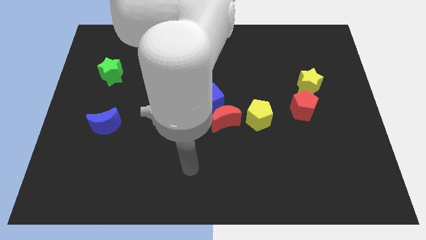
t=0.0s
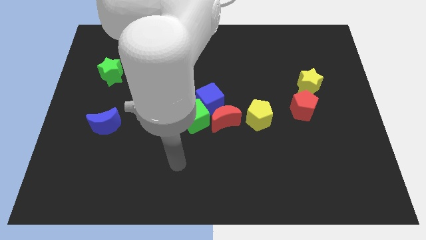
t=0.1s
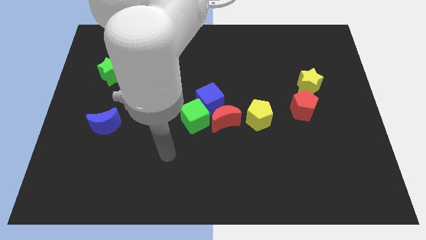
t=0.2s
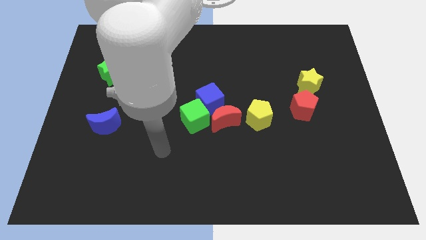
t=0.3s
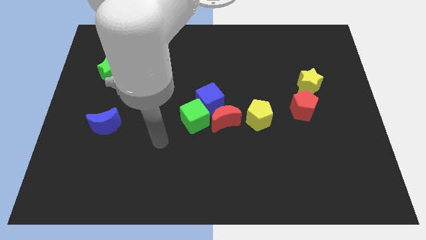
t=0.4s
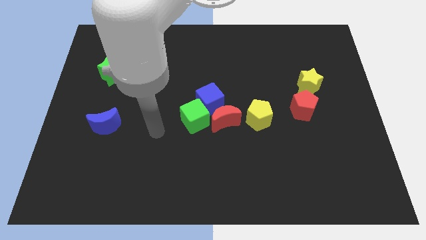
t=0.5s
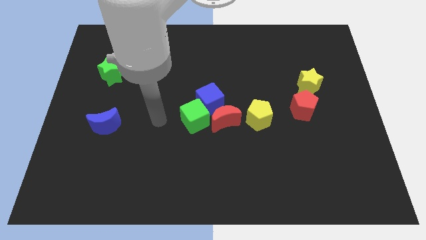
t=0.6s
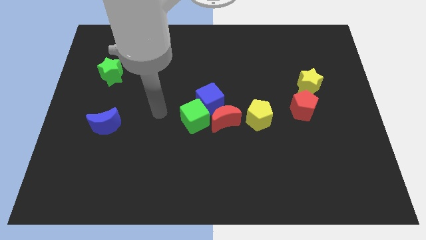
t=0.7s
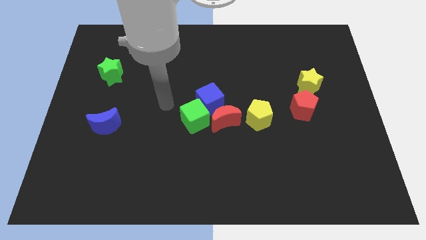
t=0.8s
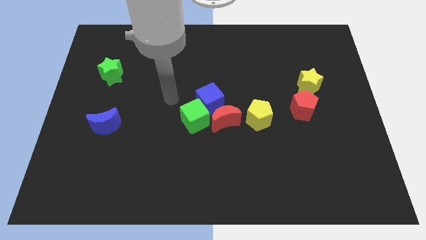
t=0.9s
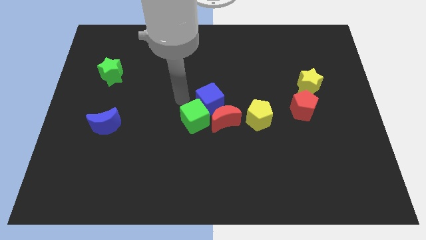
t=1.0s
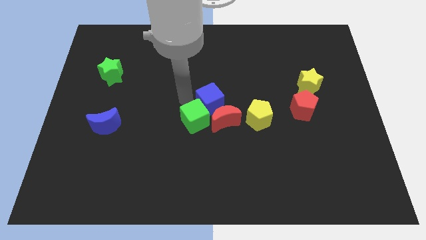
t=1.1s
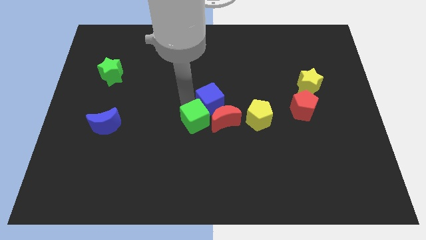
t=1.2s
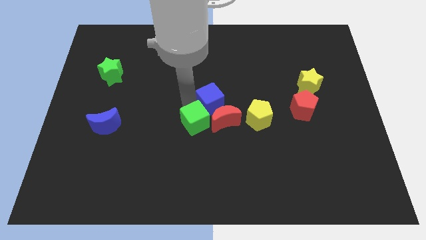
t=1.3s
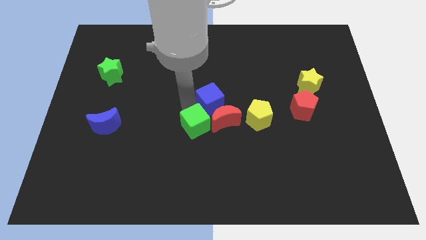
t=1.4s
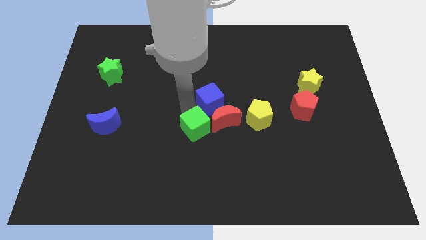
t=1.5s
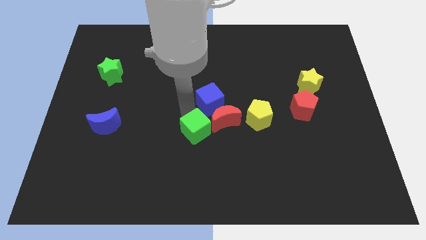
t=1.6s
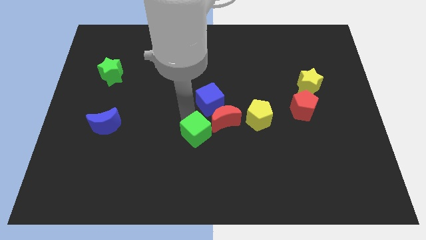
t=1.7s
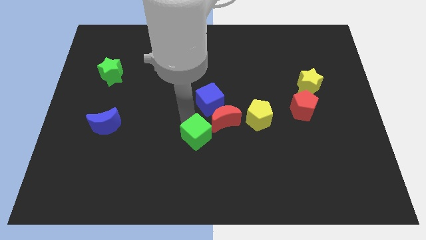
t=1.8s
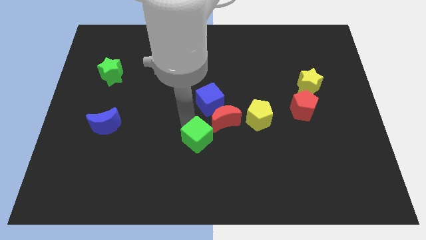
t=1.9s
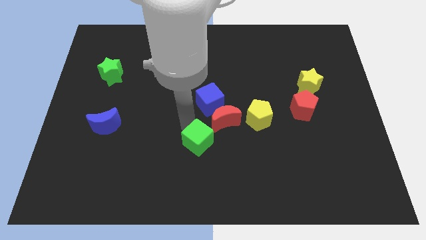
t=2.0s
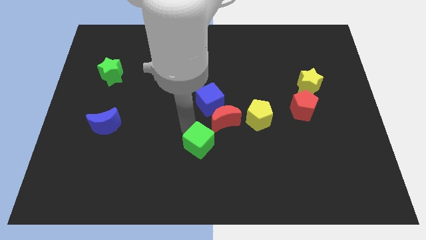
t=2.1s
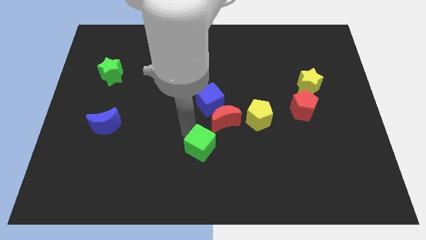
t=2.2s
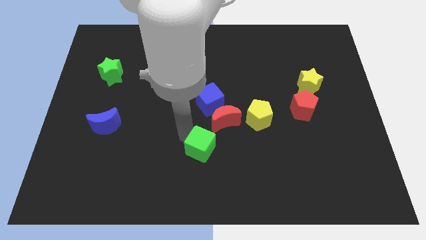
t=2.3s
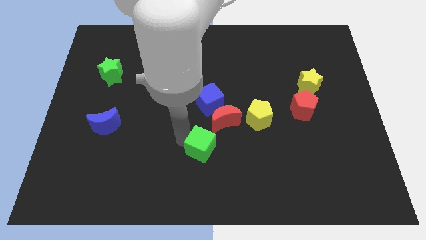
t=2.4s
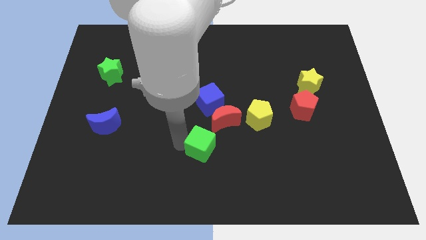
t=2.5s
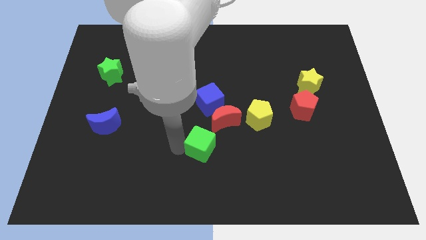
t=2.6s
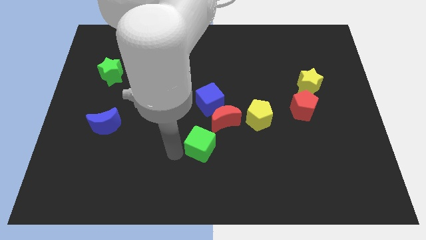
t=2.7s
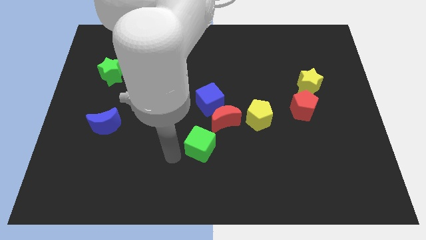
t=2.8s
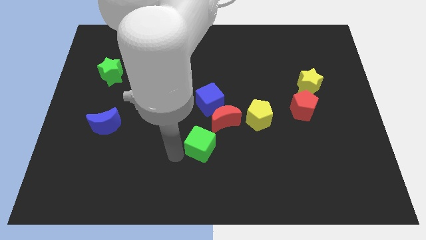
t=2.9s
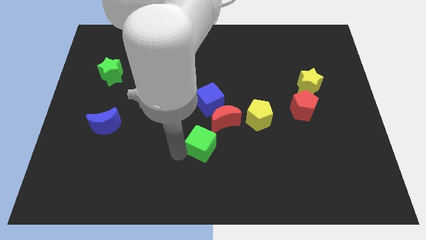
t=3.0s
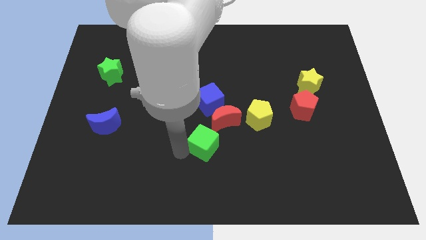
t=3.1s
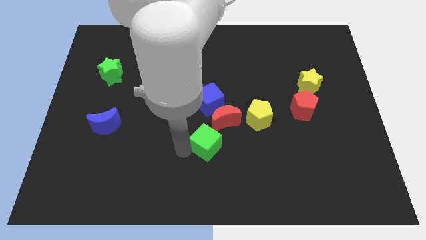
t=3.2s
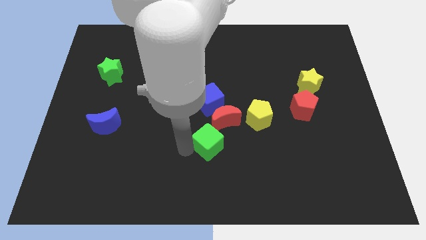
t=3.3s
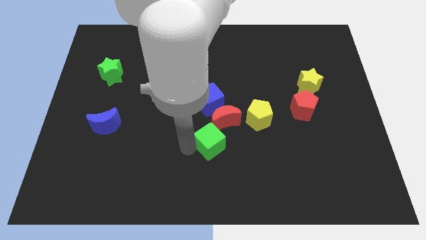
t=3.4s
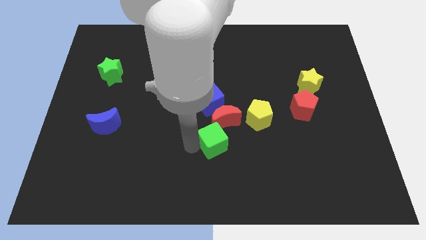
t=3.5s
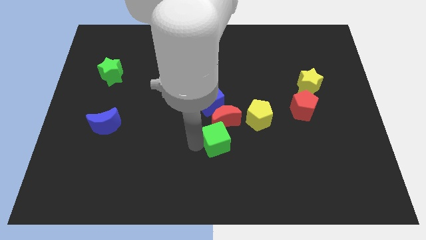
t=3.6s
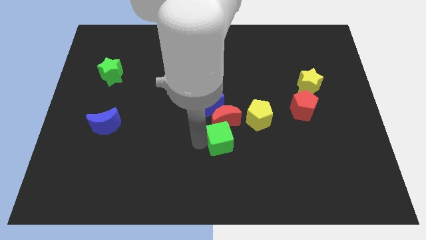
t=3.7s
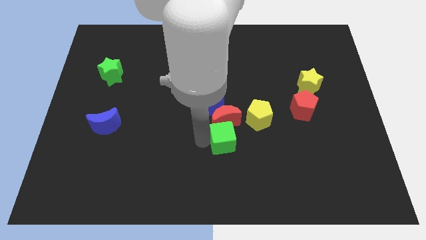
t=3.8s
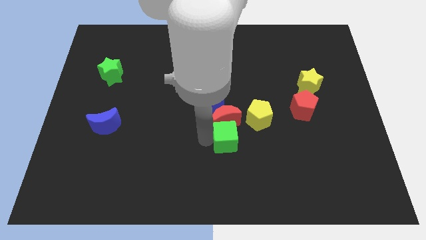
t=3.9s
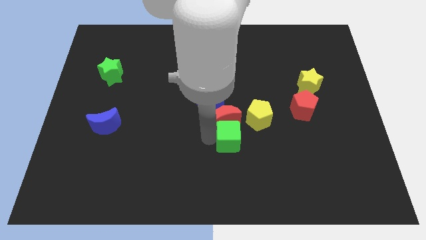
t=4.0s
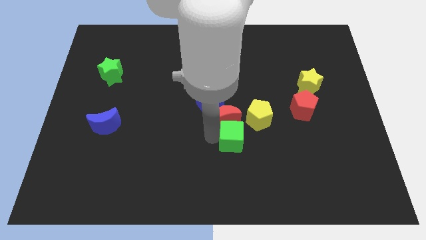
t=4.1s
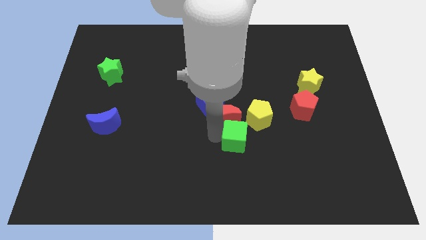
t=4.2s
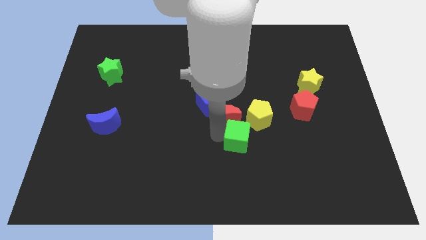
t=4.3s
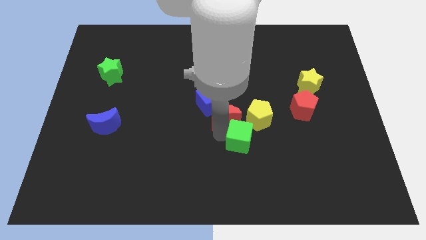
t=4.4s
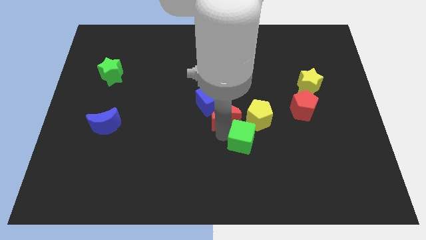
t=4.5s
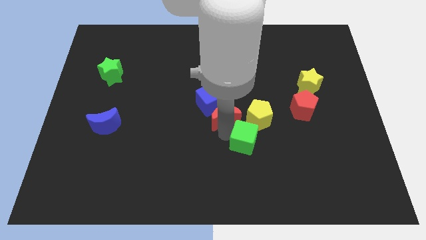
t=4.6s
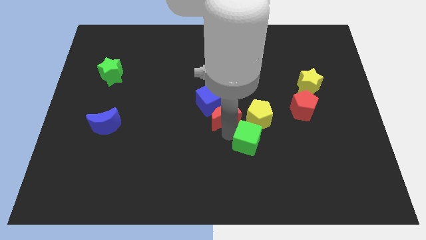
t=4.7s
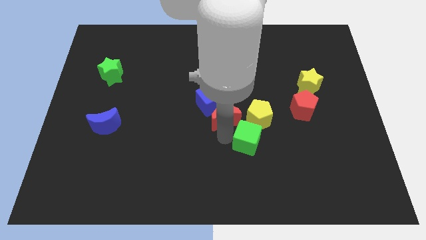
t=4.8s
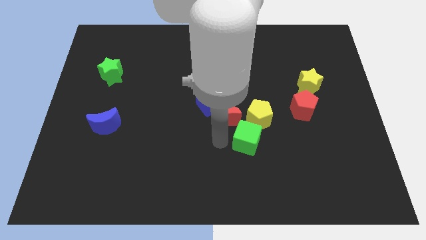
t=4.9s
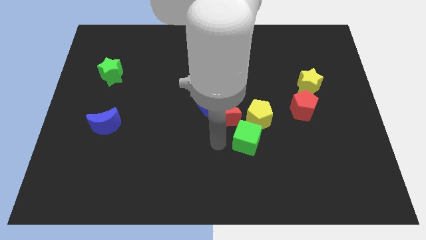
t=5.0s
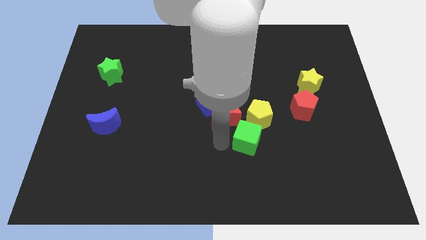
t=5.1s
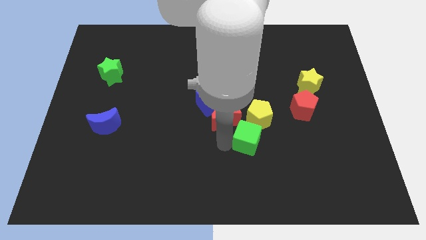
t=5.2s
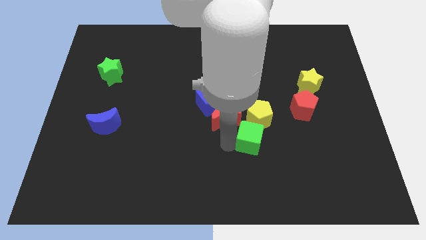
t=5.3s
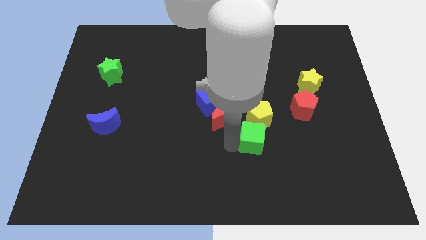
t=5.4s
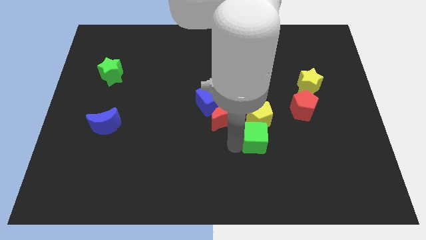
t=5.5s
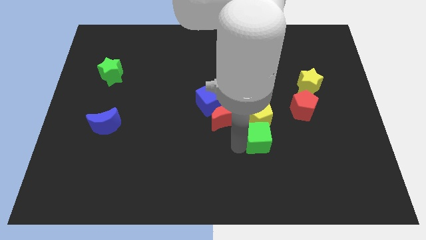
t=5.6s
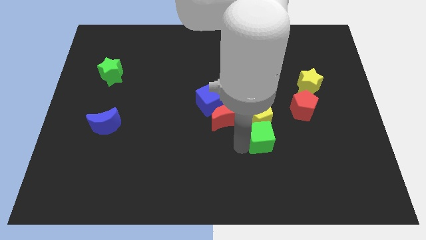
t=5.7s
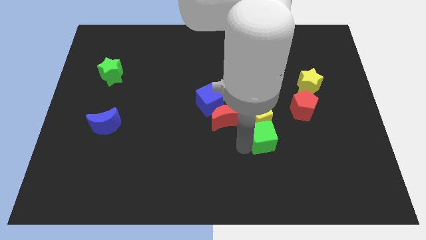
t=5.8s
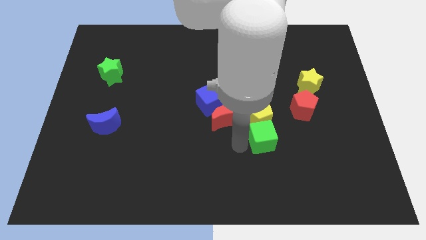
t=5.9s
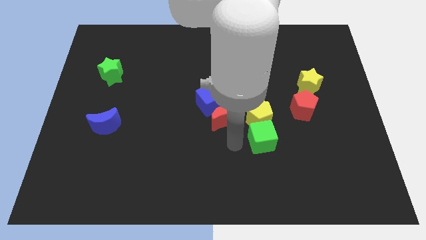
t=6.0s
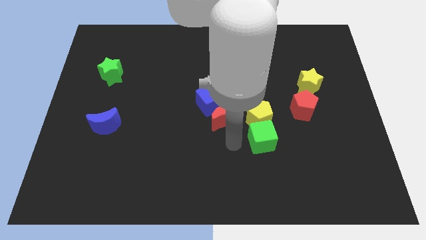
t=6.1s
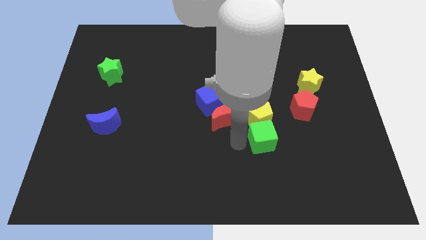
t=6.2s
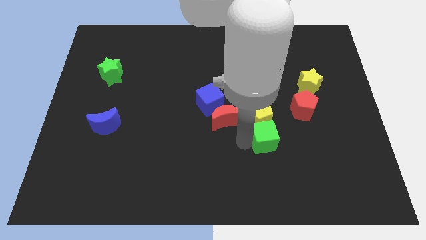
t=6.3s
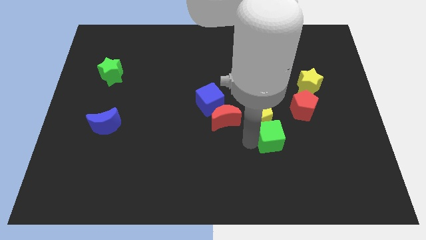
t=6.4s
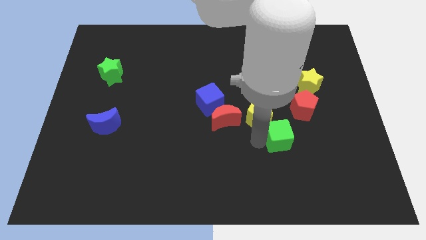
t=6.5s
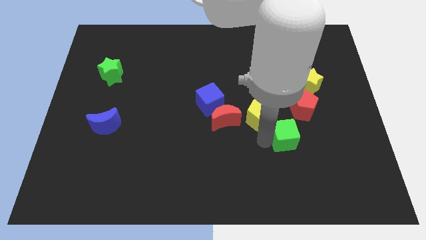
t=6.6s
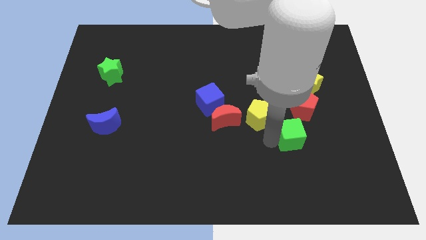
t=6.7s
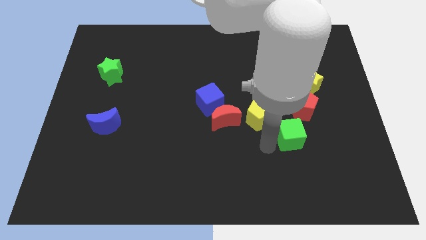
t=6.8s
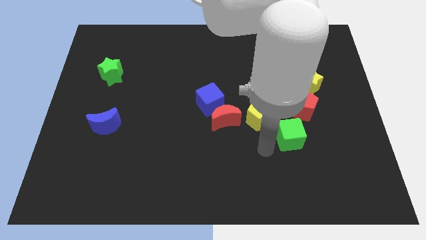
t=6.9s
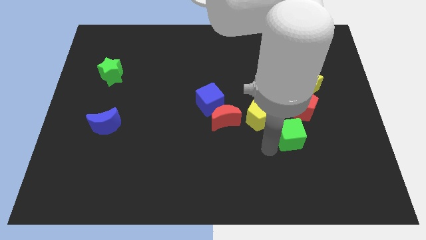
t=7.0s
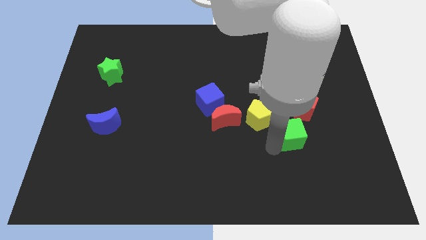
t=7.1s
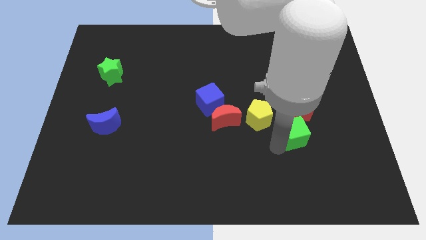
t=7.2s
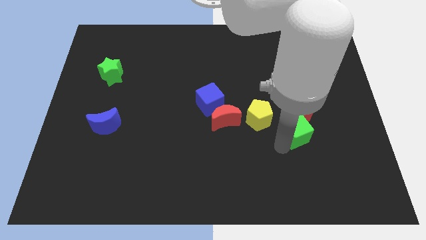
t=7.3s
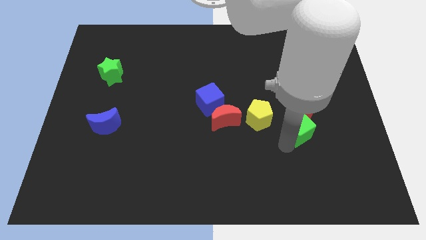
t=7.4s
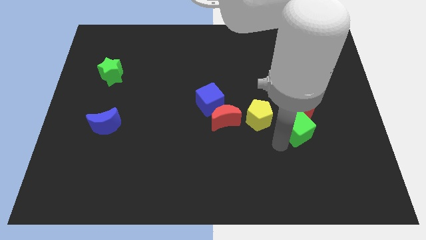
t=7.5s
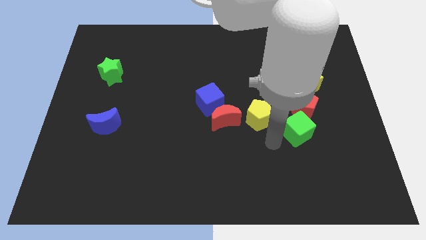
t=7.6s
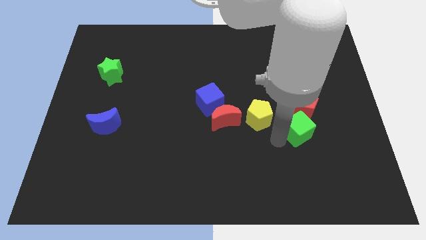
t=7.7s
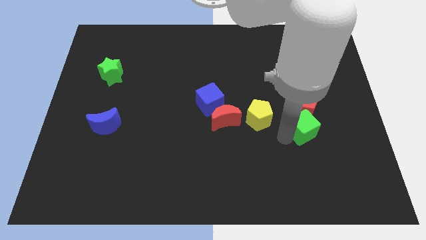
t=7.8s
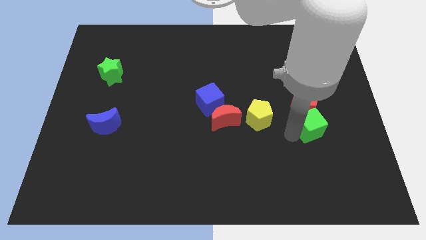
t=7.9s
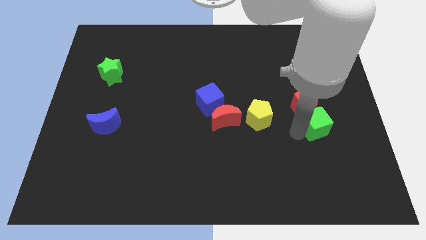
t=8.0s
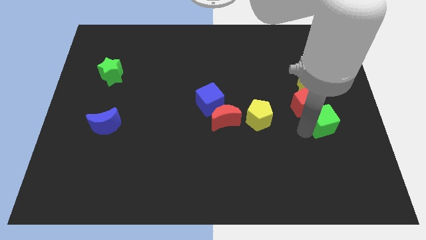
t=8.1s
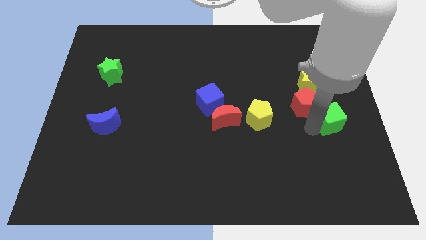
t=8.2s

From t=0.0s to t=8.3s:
slide the green cube to the right side
